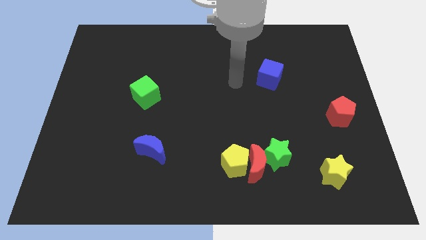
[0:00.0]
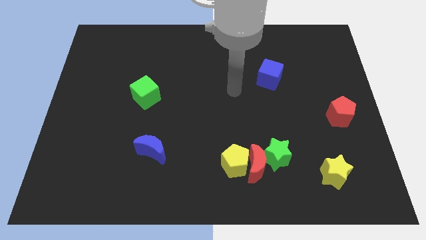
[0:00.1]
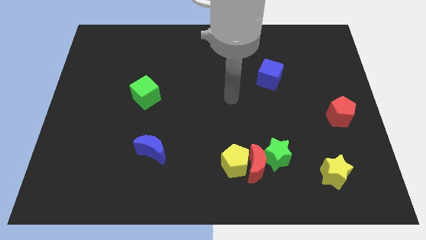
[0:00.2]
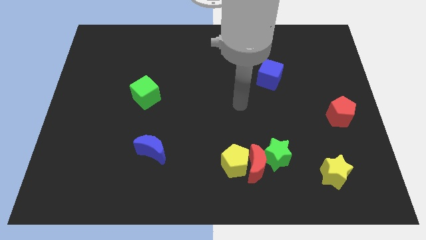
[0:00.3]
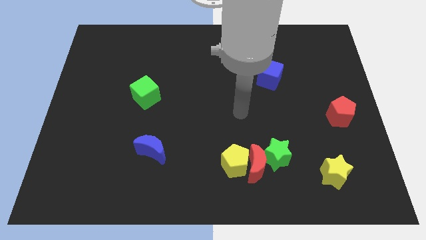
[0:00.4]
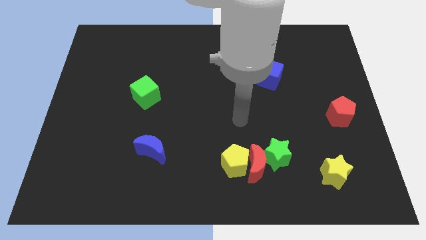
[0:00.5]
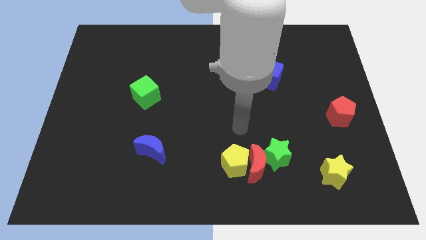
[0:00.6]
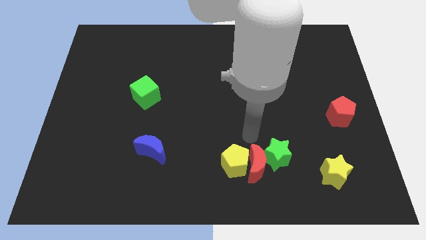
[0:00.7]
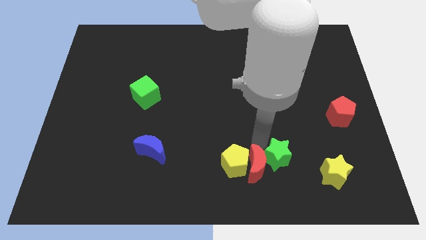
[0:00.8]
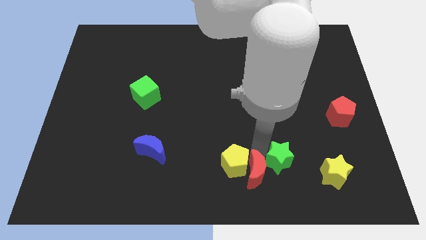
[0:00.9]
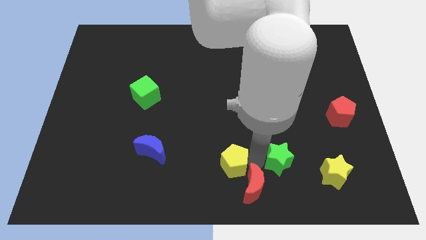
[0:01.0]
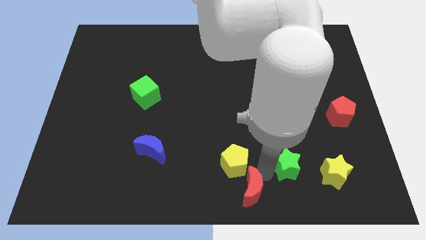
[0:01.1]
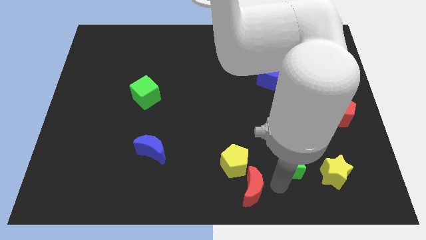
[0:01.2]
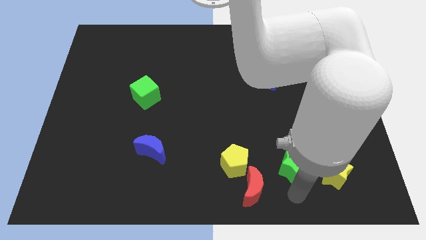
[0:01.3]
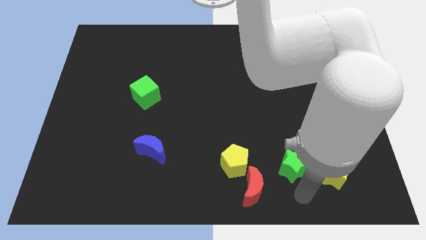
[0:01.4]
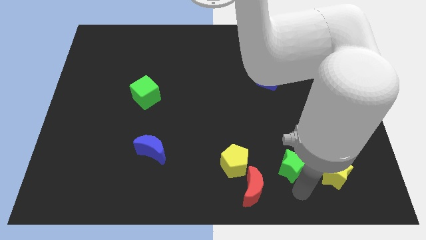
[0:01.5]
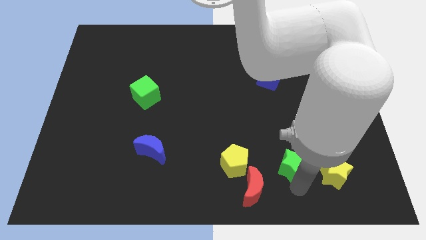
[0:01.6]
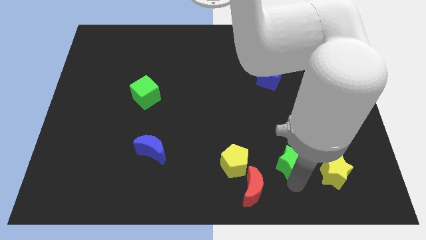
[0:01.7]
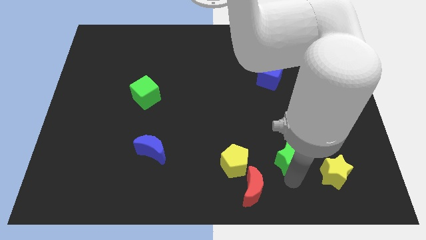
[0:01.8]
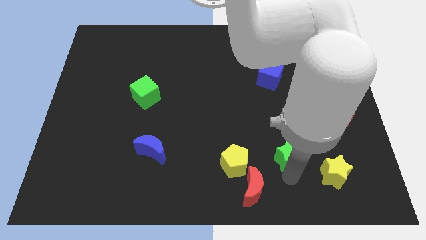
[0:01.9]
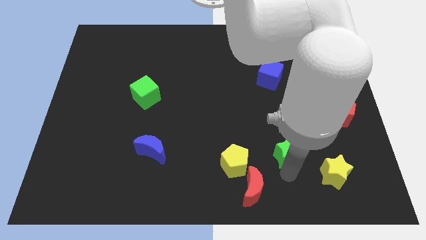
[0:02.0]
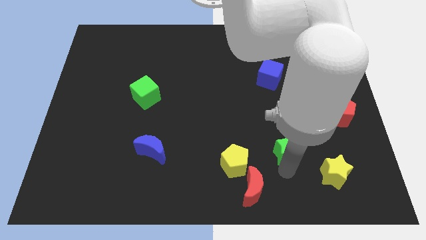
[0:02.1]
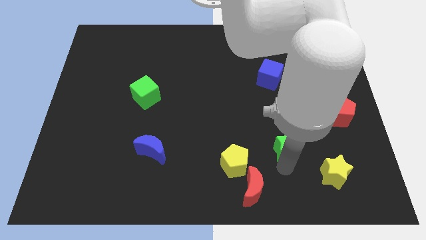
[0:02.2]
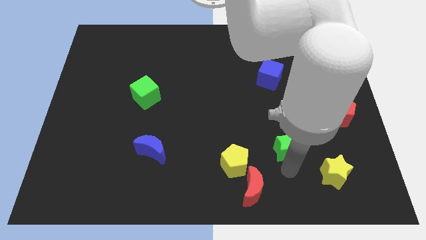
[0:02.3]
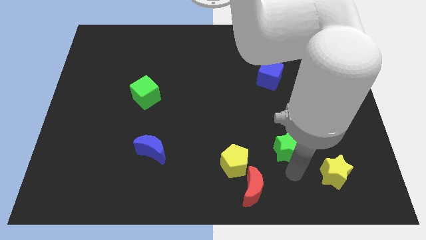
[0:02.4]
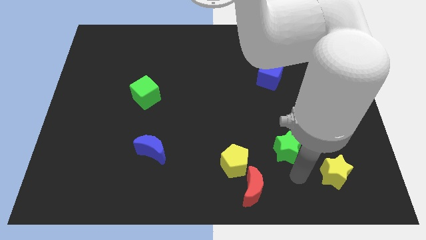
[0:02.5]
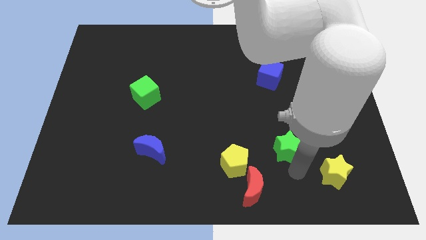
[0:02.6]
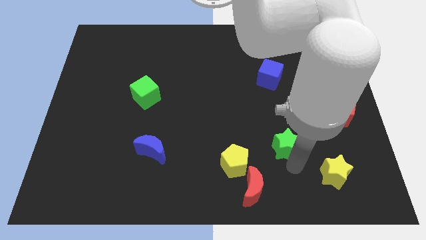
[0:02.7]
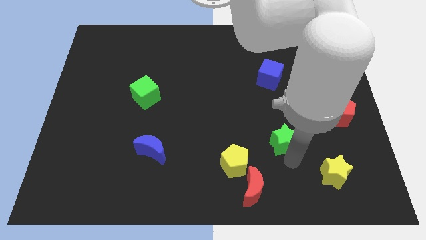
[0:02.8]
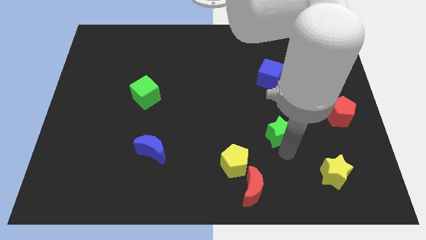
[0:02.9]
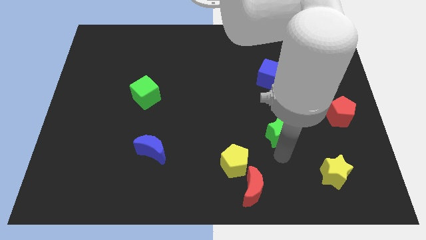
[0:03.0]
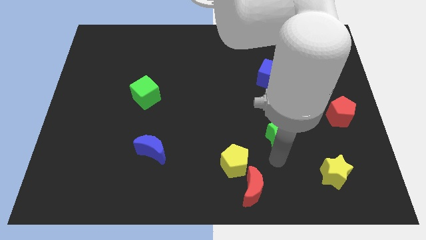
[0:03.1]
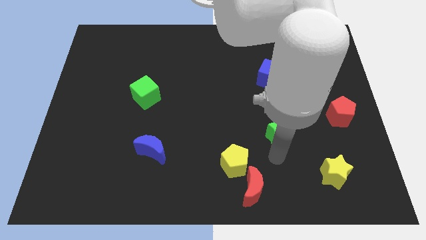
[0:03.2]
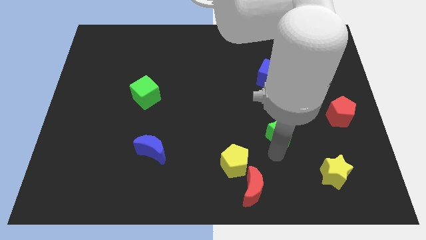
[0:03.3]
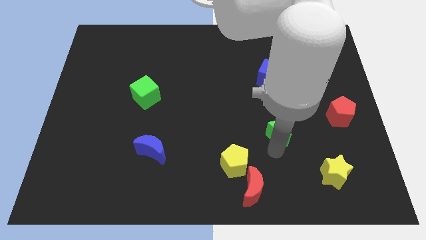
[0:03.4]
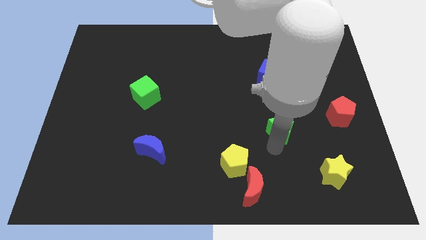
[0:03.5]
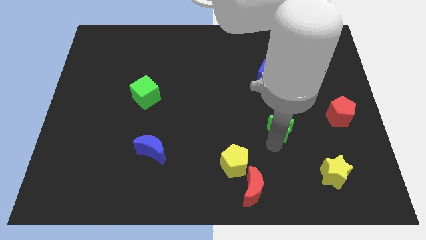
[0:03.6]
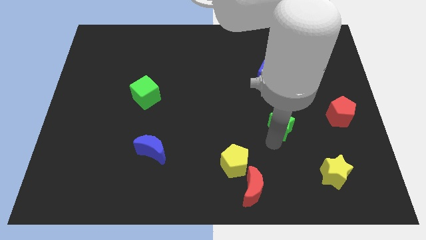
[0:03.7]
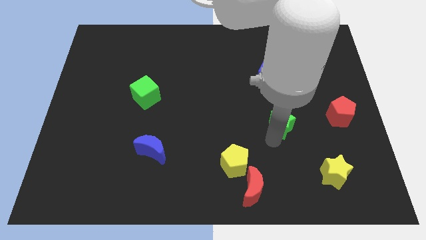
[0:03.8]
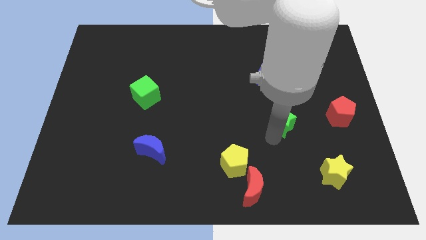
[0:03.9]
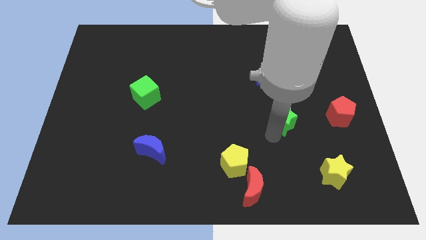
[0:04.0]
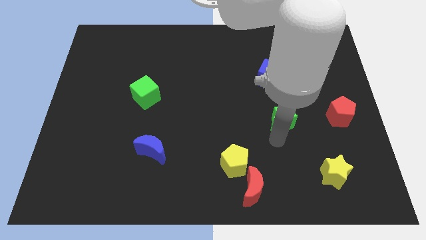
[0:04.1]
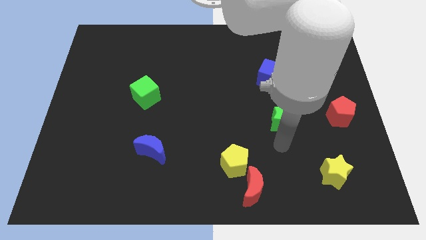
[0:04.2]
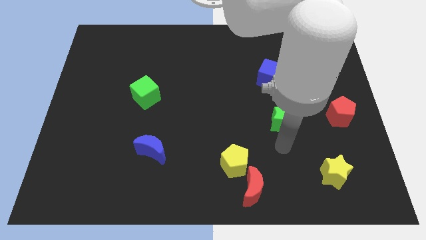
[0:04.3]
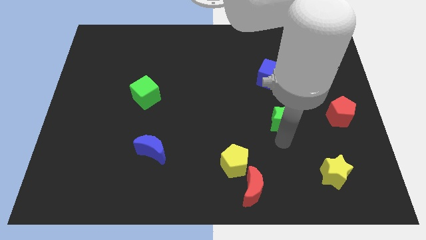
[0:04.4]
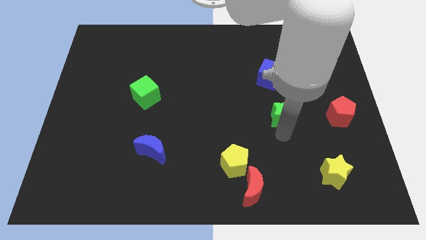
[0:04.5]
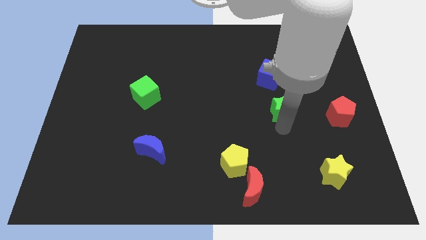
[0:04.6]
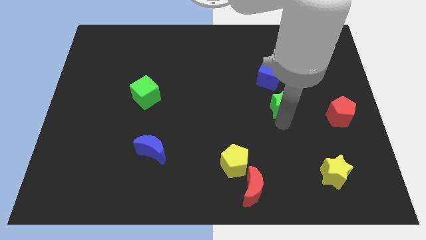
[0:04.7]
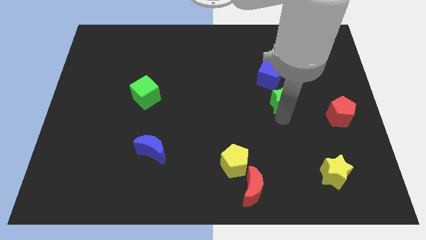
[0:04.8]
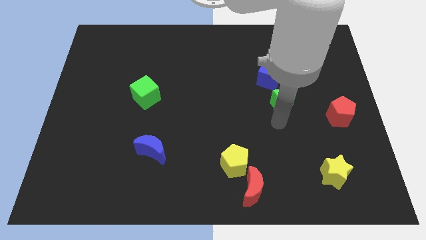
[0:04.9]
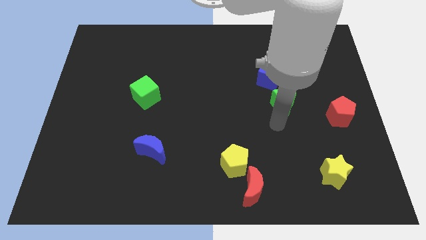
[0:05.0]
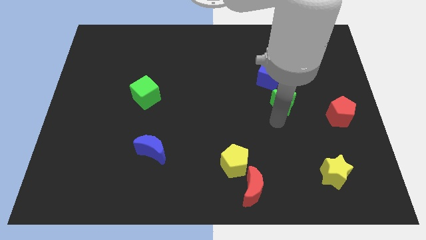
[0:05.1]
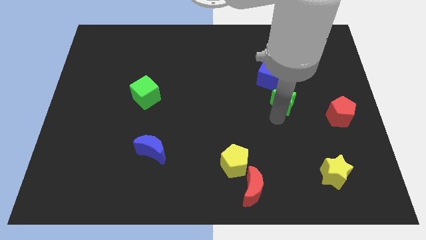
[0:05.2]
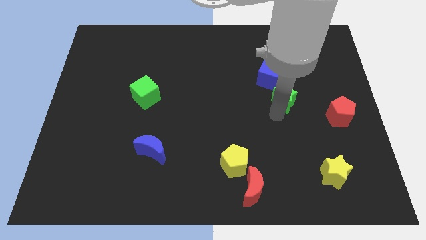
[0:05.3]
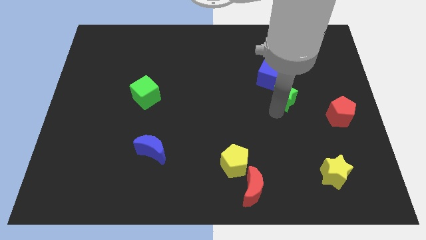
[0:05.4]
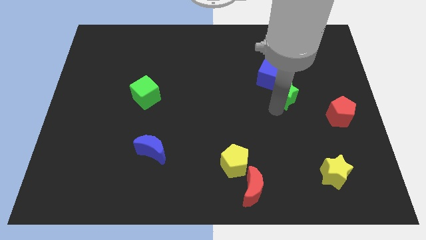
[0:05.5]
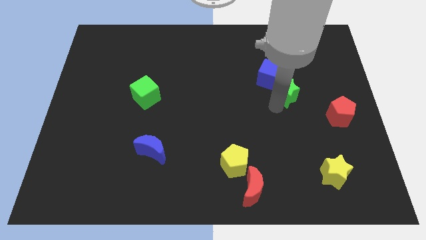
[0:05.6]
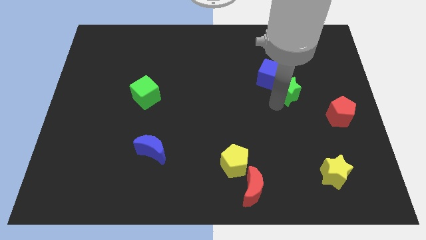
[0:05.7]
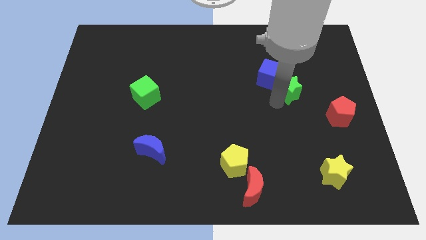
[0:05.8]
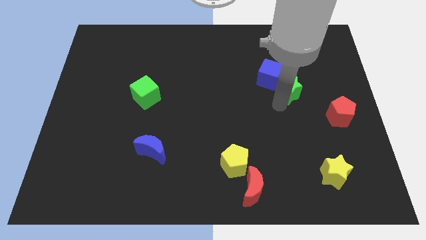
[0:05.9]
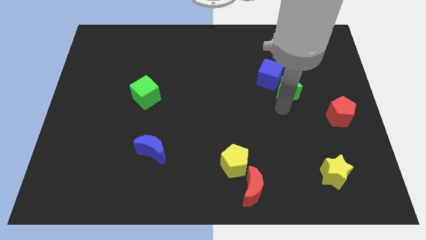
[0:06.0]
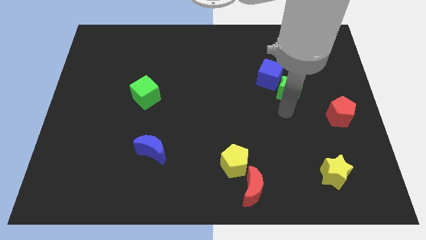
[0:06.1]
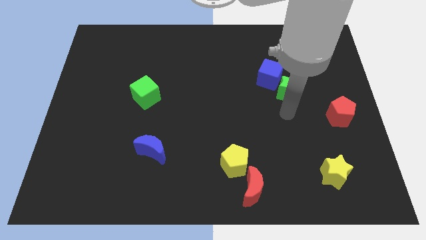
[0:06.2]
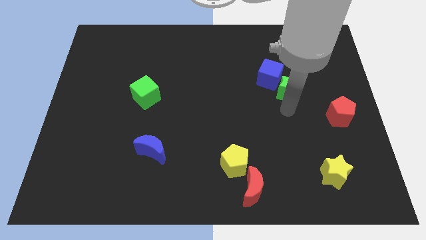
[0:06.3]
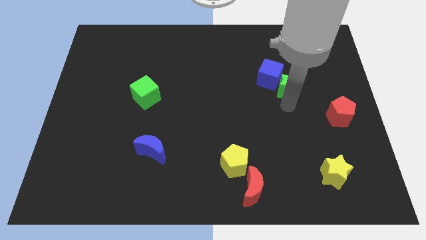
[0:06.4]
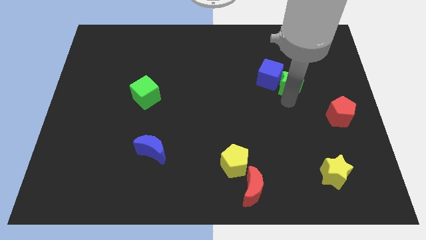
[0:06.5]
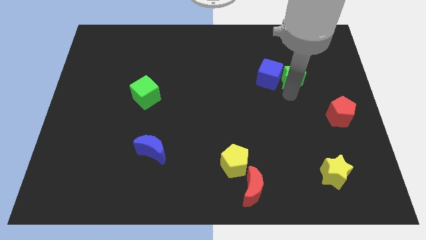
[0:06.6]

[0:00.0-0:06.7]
push the green star diagonally up and to the right of the blue cube

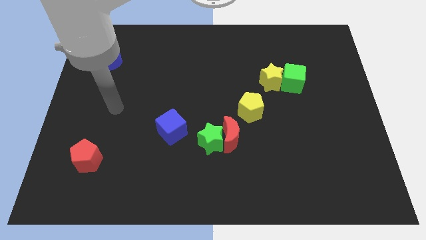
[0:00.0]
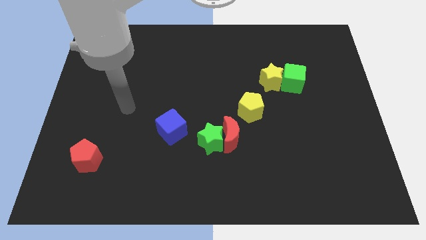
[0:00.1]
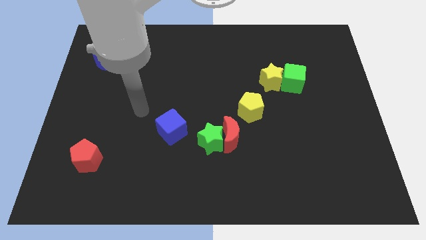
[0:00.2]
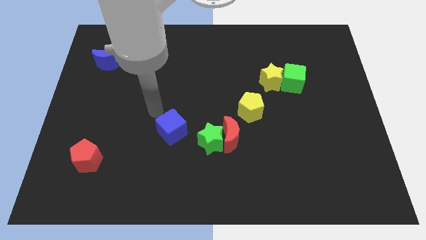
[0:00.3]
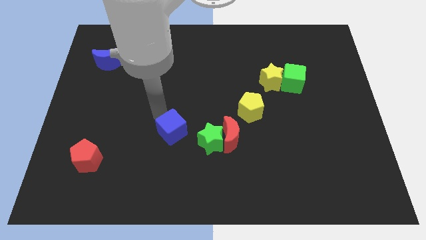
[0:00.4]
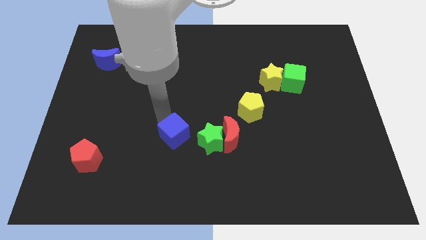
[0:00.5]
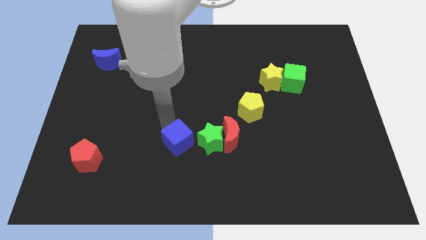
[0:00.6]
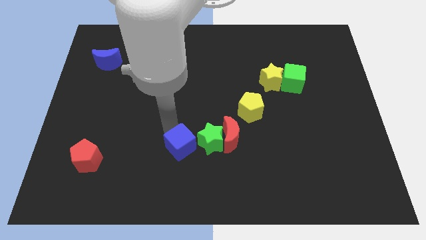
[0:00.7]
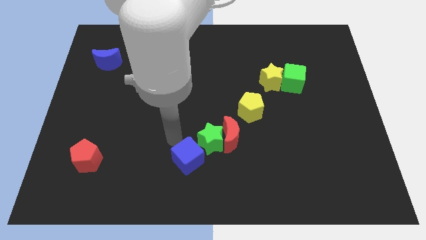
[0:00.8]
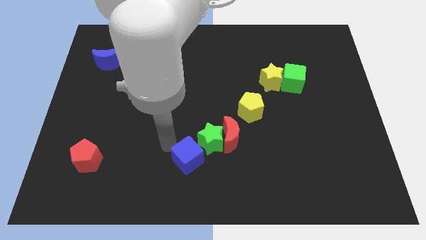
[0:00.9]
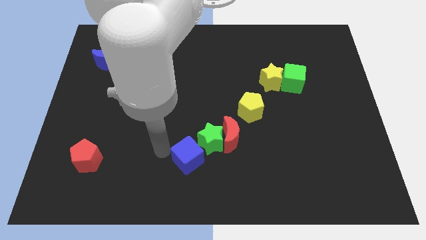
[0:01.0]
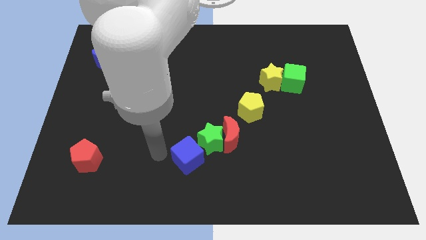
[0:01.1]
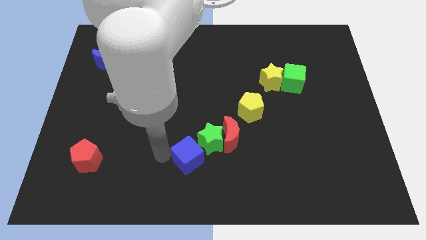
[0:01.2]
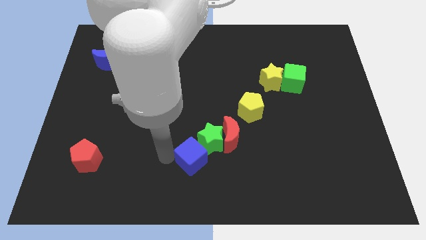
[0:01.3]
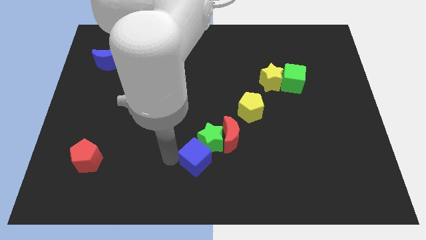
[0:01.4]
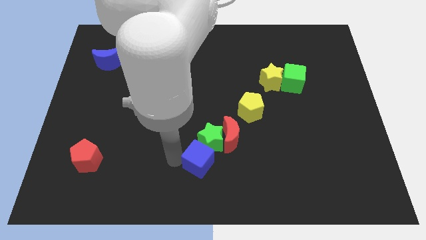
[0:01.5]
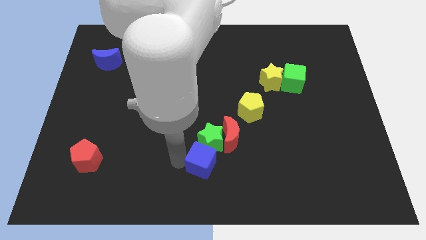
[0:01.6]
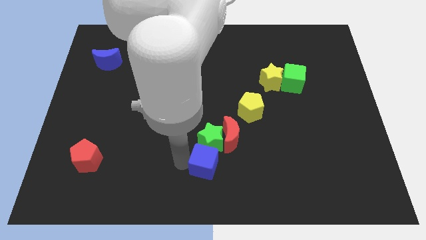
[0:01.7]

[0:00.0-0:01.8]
push the blue cube to the bottom right side of the green star
